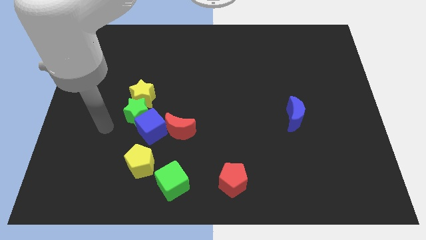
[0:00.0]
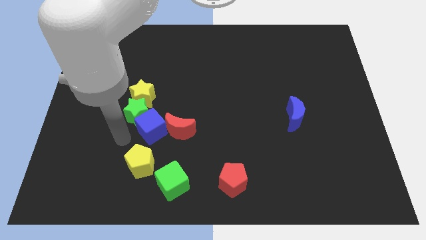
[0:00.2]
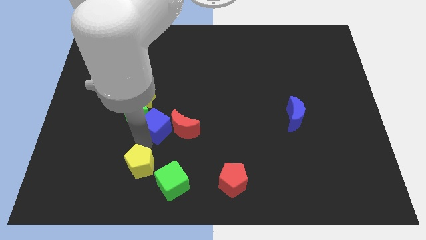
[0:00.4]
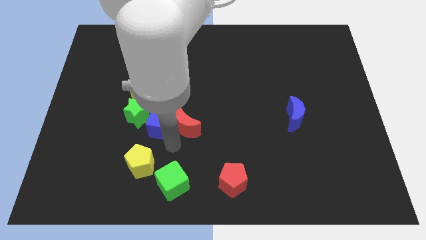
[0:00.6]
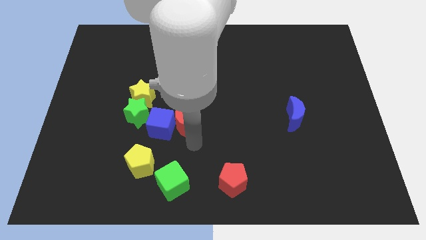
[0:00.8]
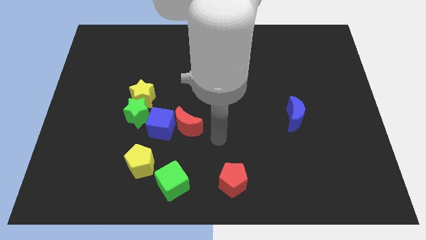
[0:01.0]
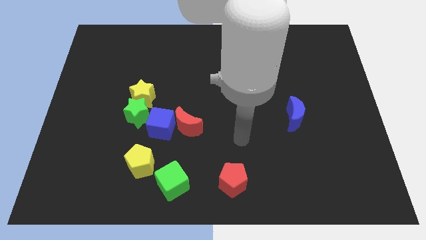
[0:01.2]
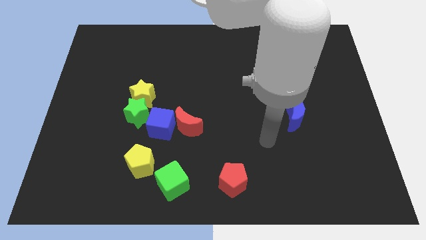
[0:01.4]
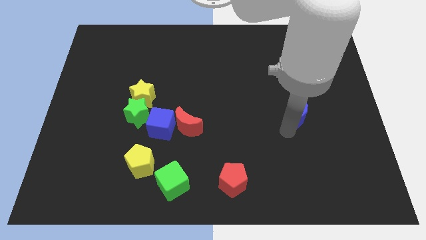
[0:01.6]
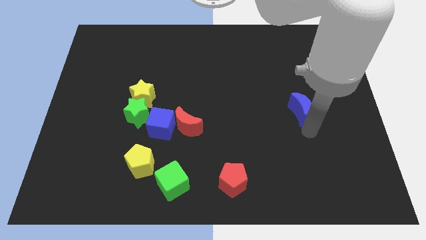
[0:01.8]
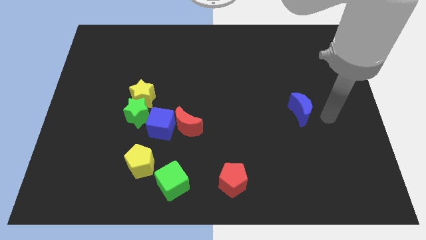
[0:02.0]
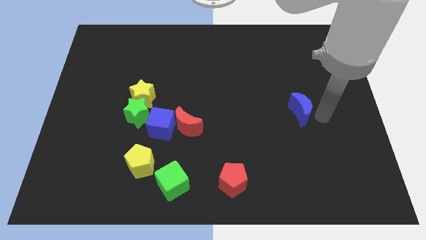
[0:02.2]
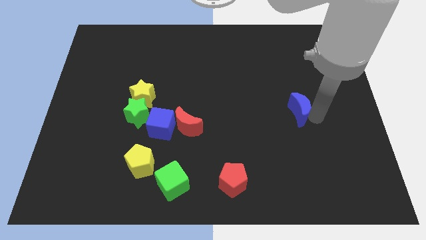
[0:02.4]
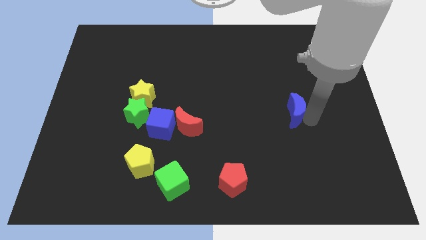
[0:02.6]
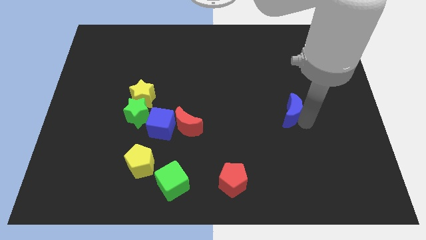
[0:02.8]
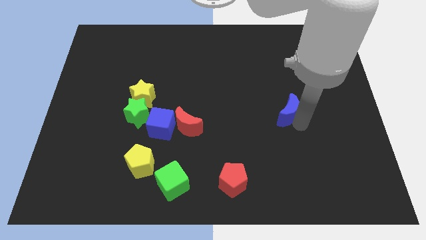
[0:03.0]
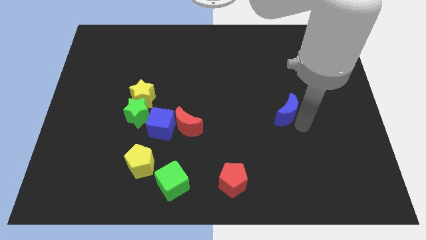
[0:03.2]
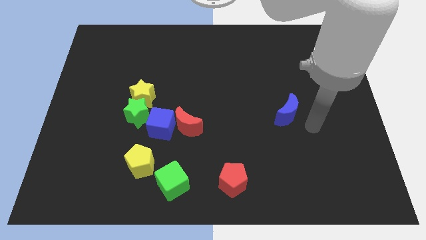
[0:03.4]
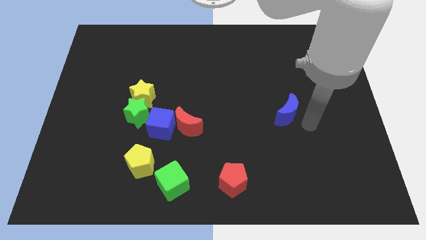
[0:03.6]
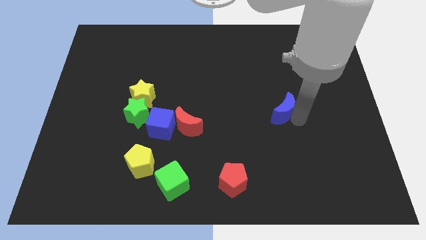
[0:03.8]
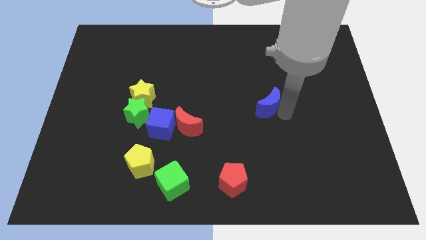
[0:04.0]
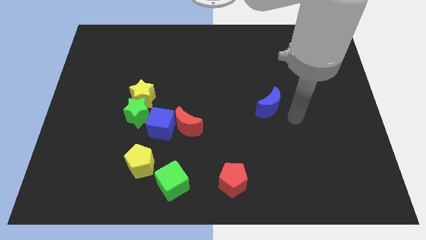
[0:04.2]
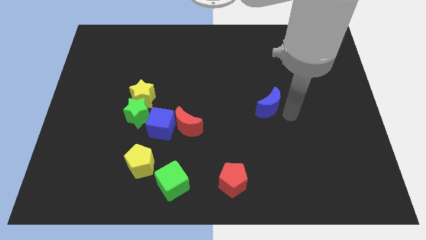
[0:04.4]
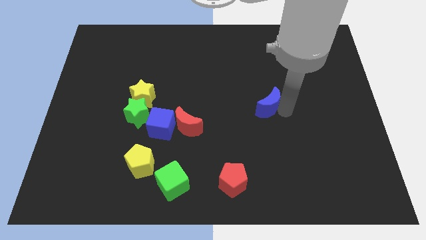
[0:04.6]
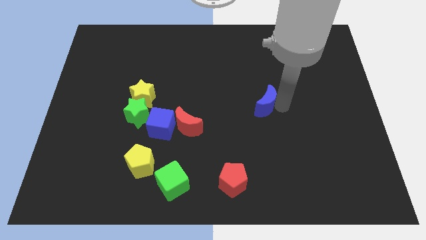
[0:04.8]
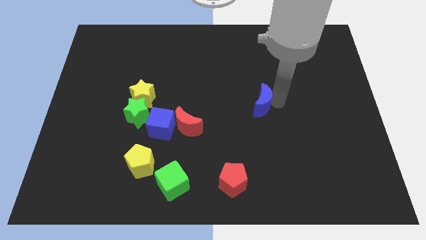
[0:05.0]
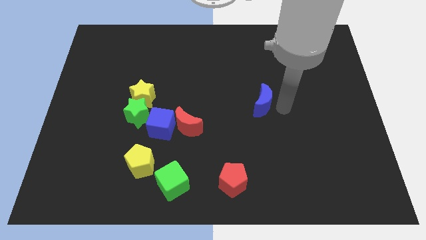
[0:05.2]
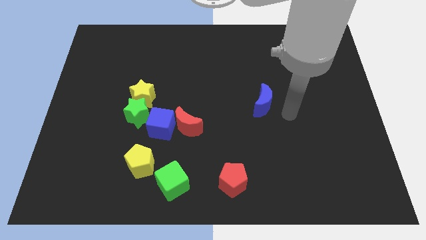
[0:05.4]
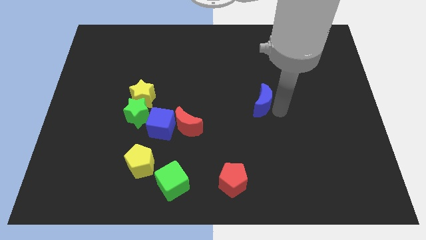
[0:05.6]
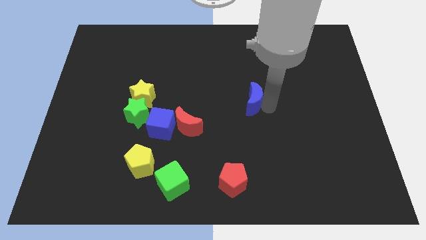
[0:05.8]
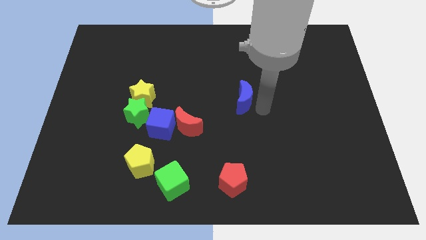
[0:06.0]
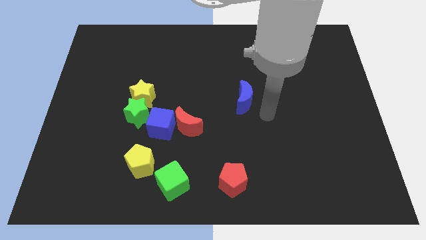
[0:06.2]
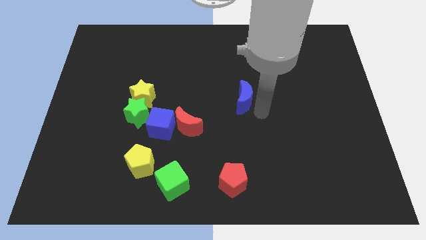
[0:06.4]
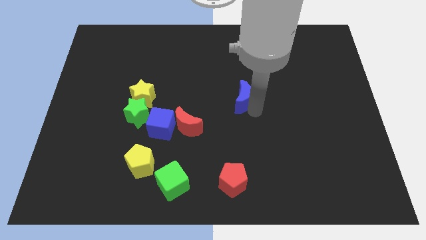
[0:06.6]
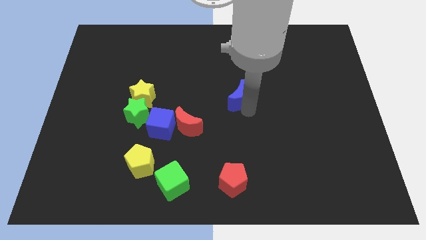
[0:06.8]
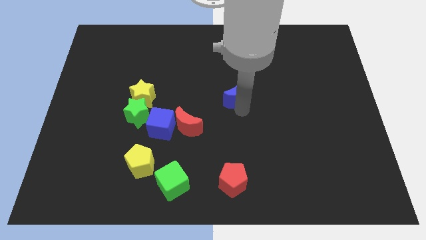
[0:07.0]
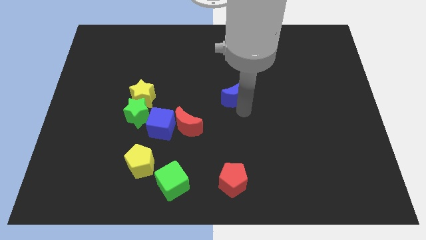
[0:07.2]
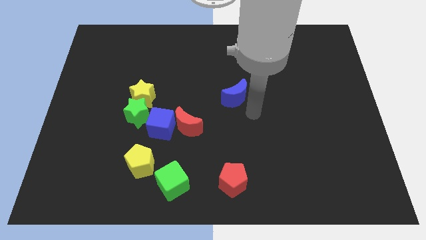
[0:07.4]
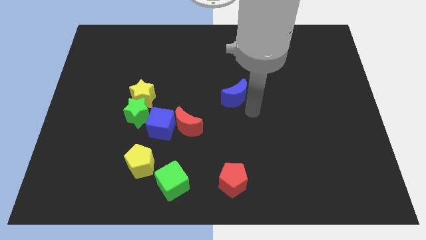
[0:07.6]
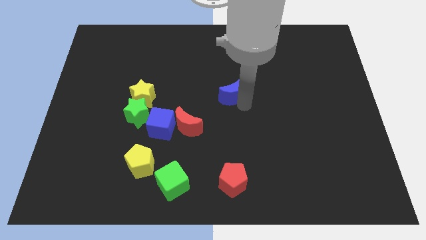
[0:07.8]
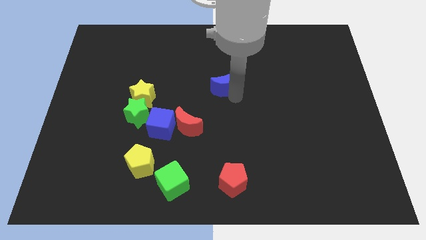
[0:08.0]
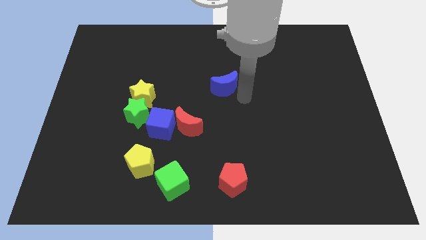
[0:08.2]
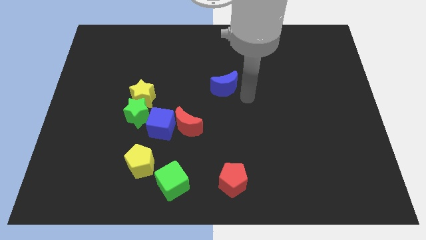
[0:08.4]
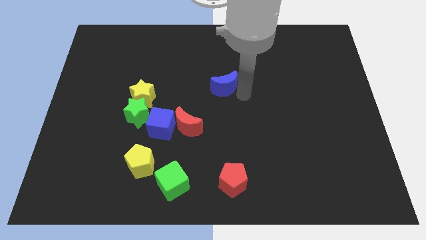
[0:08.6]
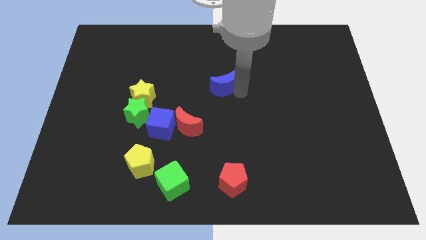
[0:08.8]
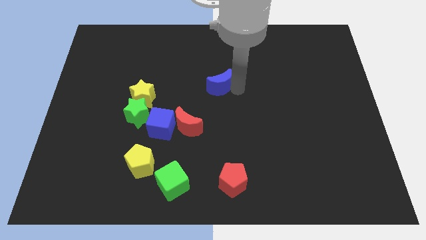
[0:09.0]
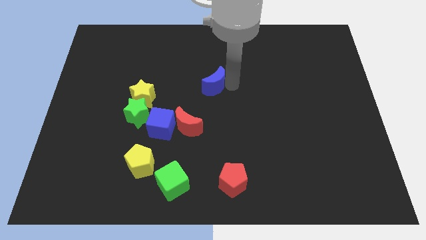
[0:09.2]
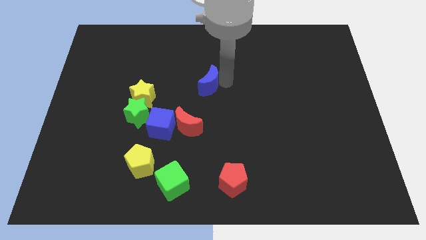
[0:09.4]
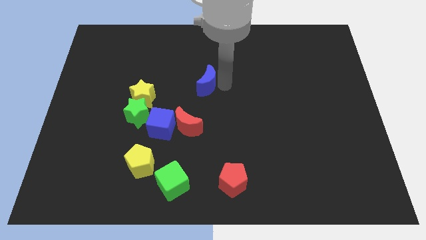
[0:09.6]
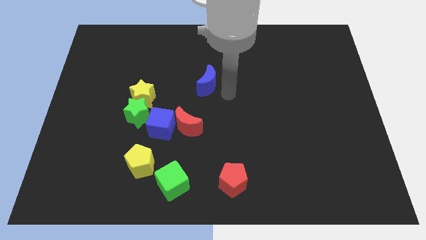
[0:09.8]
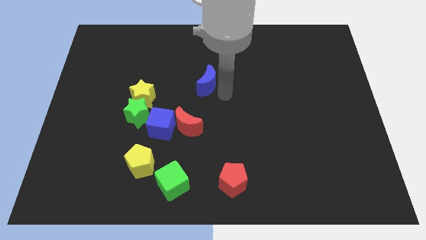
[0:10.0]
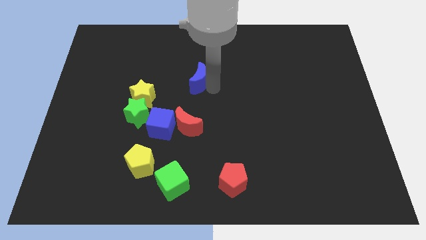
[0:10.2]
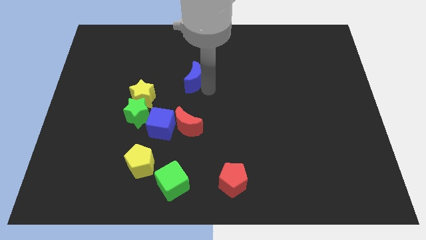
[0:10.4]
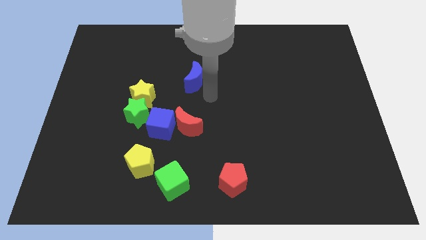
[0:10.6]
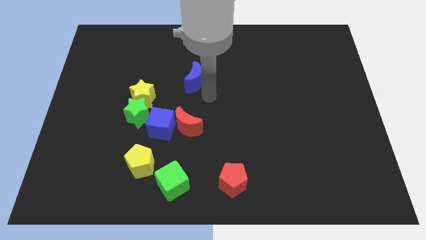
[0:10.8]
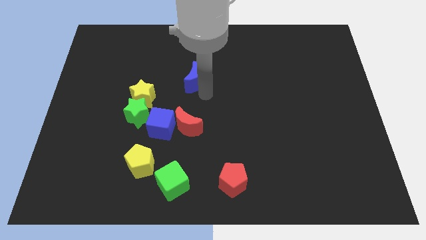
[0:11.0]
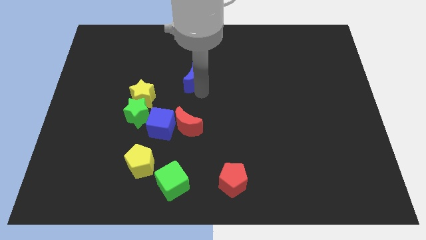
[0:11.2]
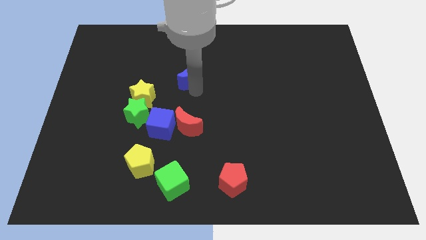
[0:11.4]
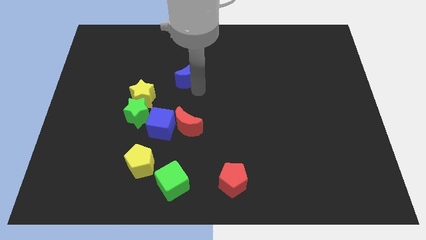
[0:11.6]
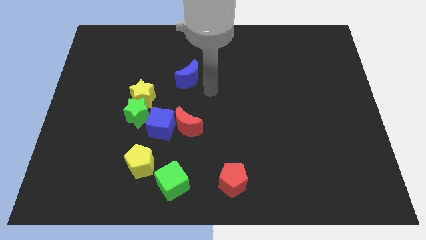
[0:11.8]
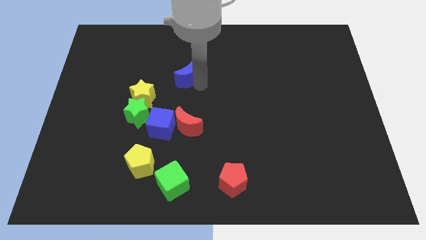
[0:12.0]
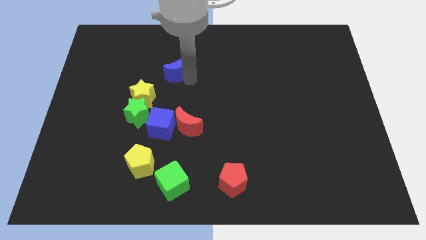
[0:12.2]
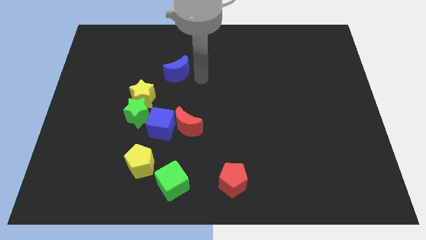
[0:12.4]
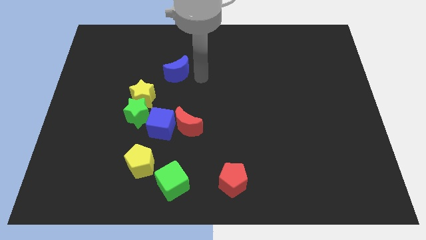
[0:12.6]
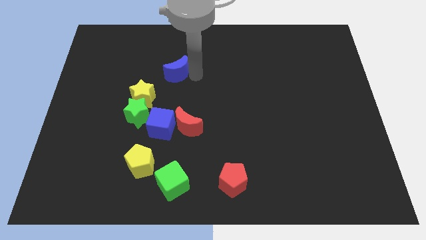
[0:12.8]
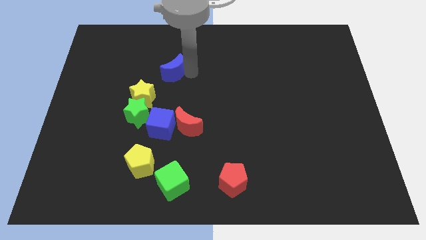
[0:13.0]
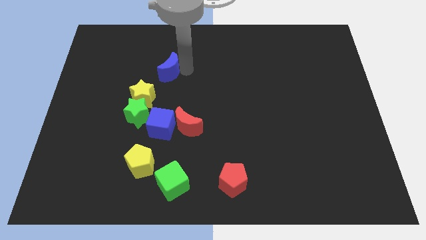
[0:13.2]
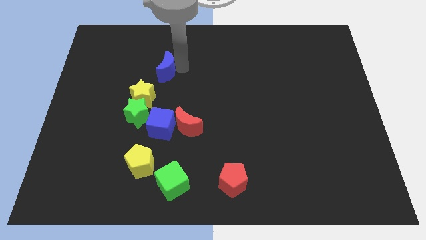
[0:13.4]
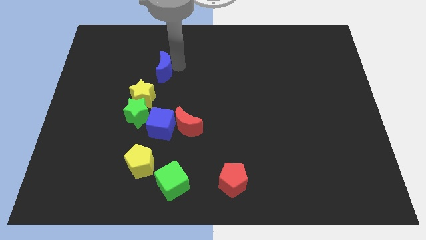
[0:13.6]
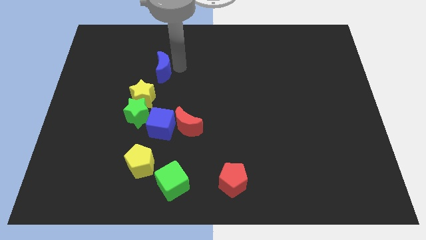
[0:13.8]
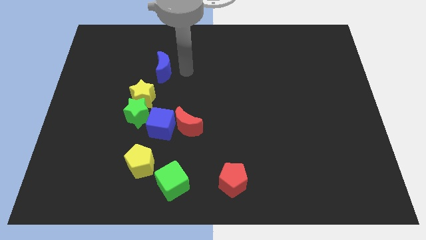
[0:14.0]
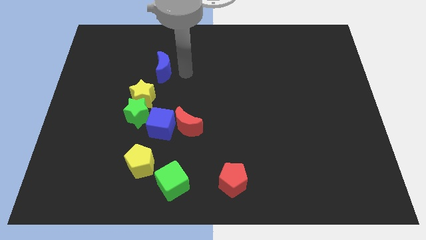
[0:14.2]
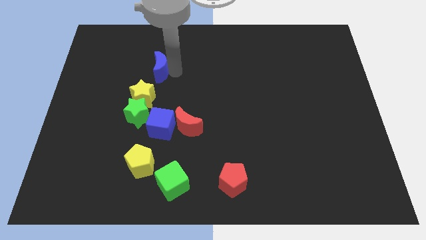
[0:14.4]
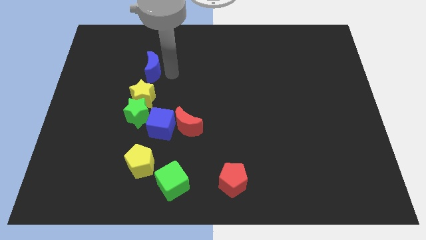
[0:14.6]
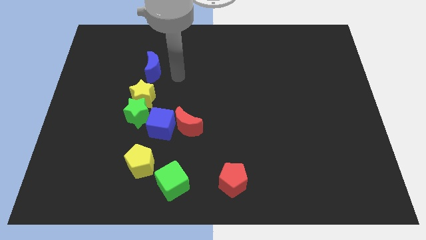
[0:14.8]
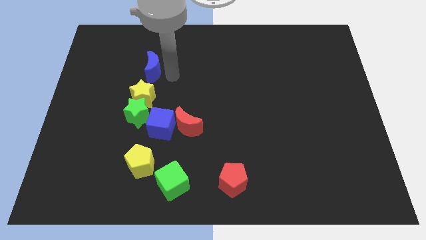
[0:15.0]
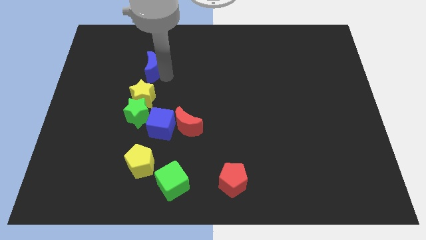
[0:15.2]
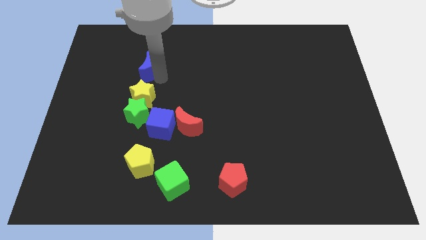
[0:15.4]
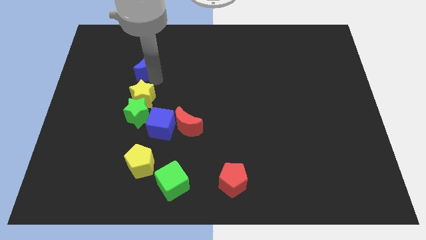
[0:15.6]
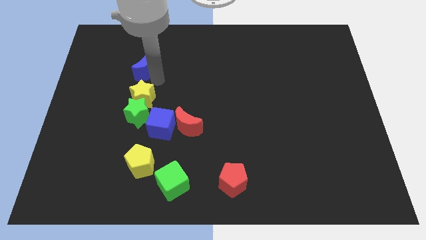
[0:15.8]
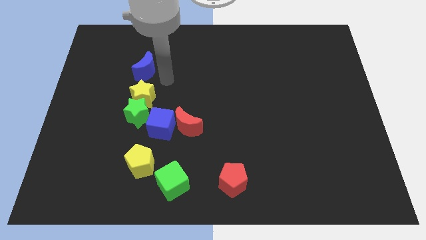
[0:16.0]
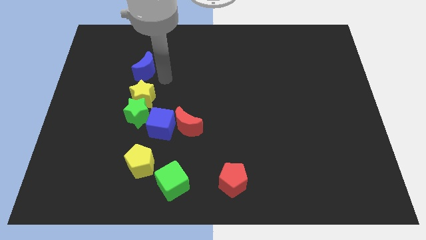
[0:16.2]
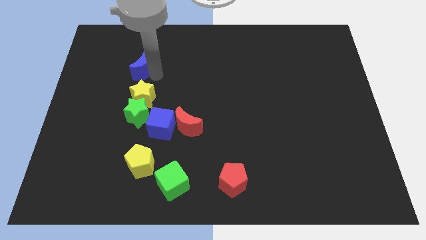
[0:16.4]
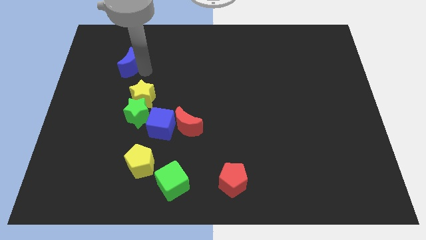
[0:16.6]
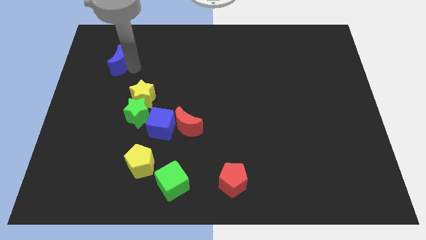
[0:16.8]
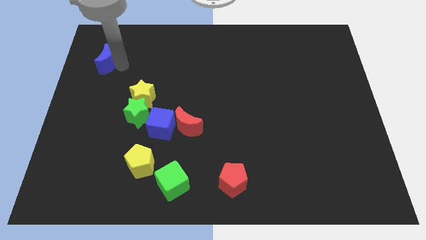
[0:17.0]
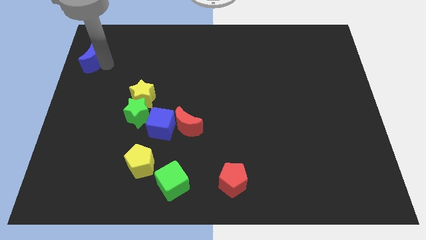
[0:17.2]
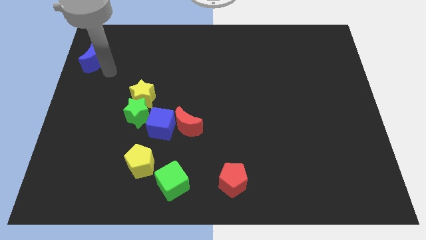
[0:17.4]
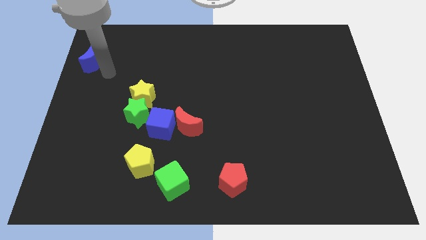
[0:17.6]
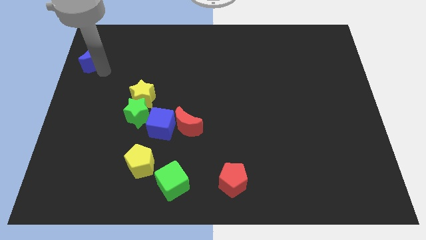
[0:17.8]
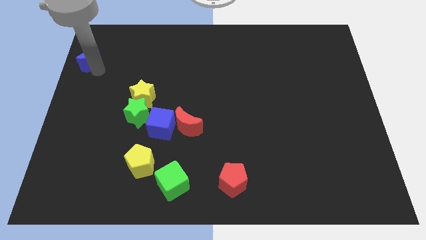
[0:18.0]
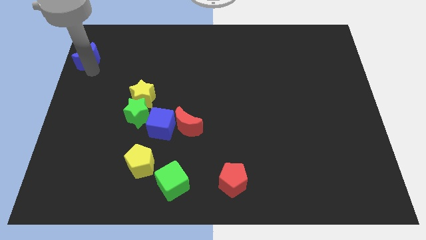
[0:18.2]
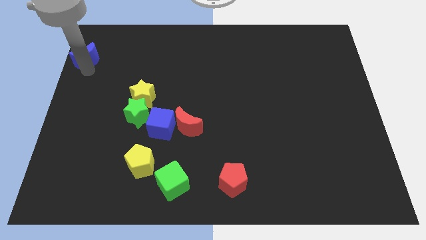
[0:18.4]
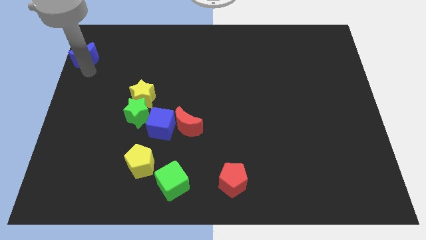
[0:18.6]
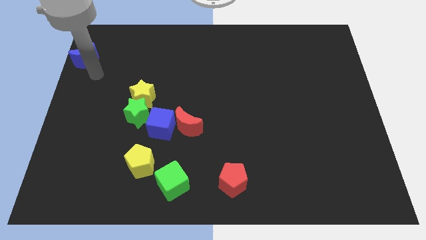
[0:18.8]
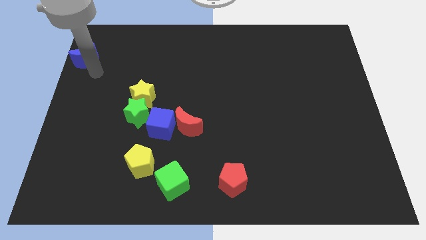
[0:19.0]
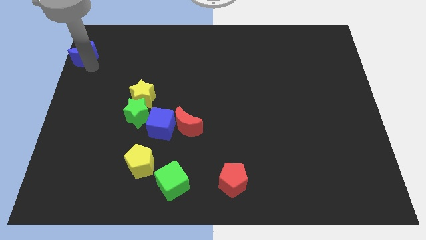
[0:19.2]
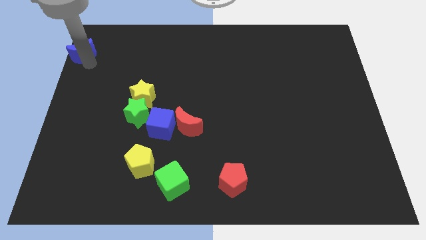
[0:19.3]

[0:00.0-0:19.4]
push the blue moon to the top left
